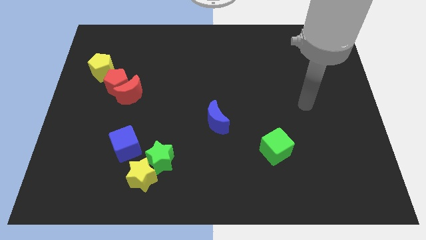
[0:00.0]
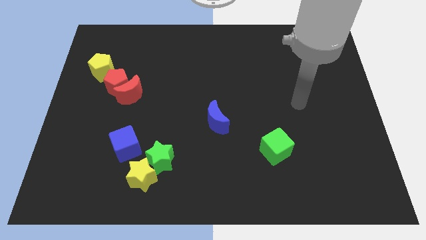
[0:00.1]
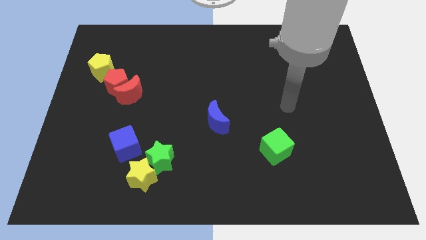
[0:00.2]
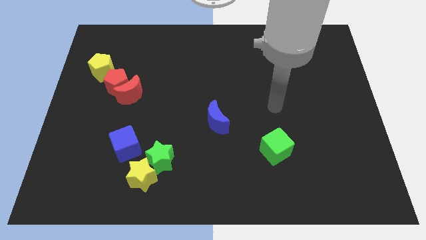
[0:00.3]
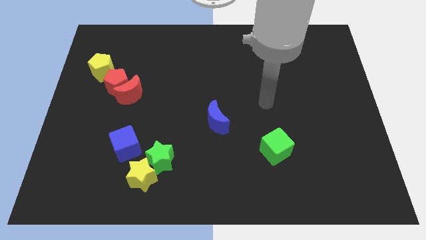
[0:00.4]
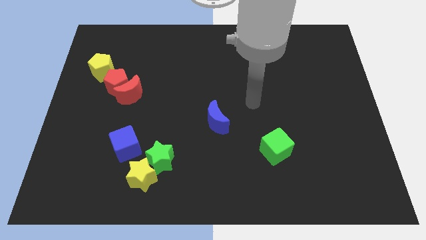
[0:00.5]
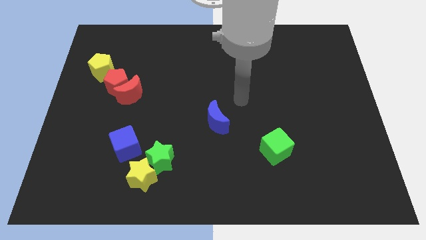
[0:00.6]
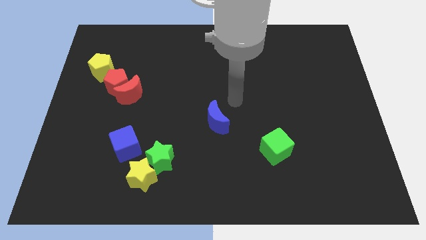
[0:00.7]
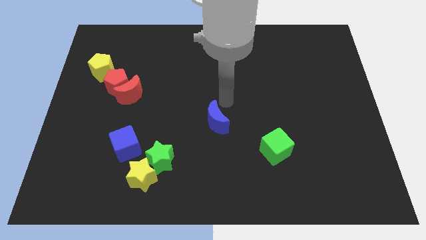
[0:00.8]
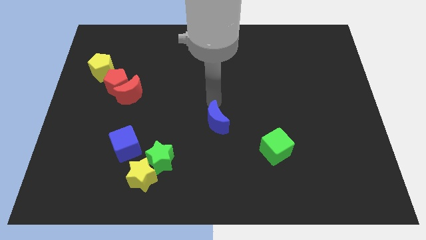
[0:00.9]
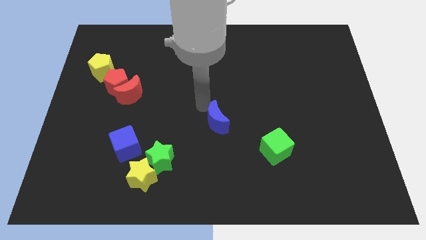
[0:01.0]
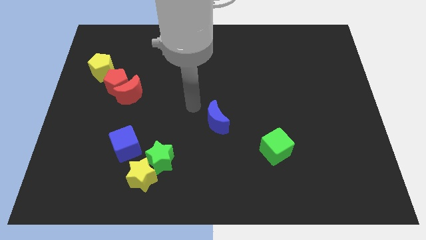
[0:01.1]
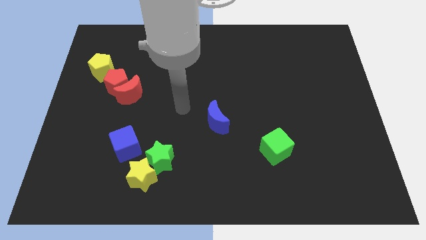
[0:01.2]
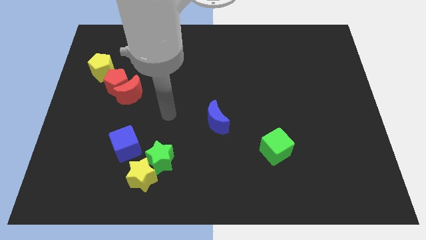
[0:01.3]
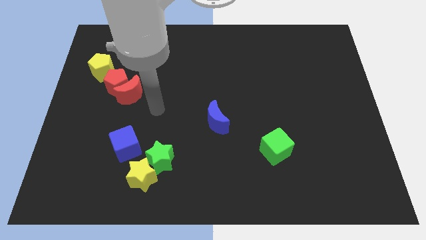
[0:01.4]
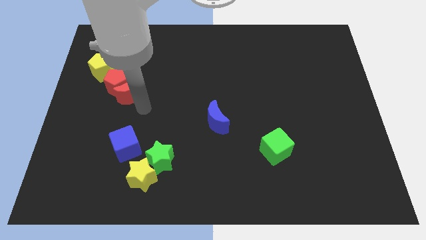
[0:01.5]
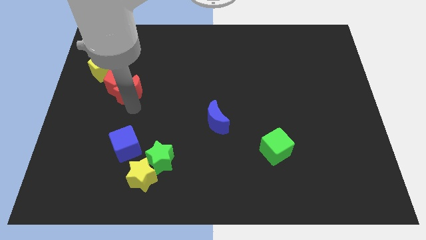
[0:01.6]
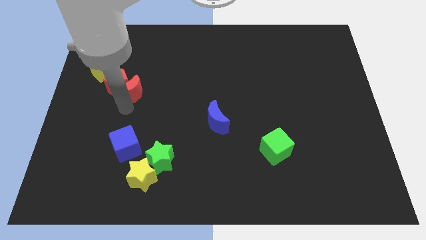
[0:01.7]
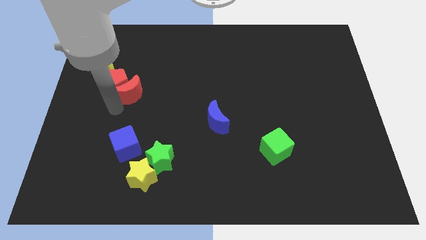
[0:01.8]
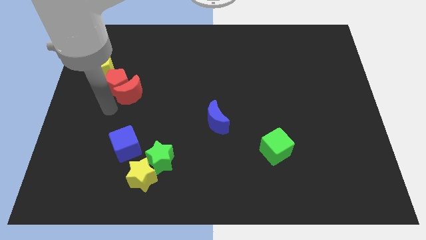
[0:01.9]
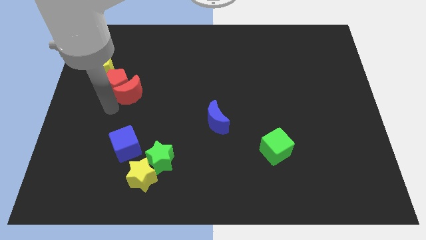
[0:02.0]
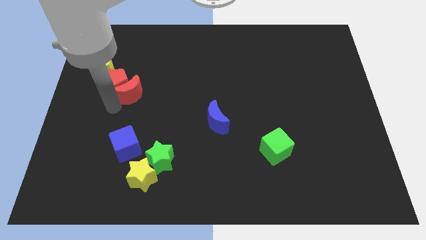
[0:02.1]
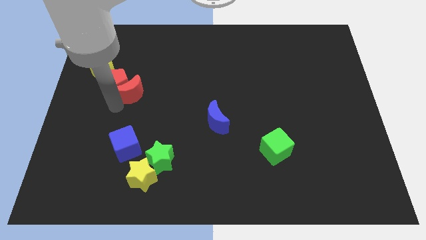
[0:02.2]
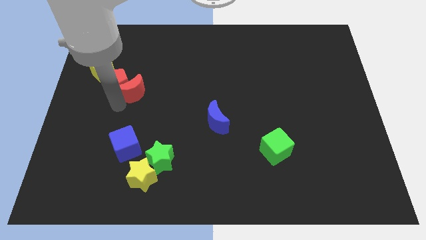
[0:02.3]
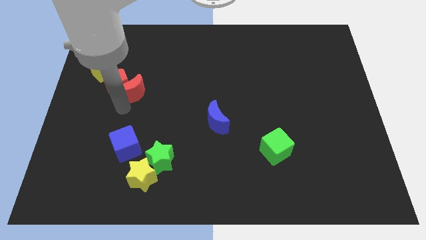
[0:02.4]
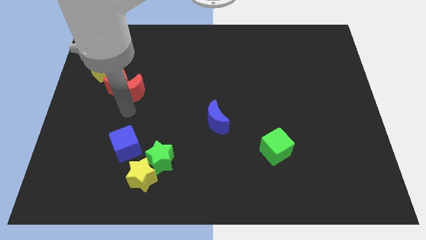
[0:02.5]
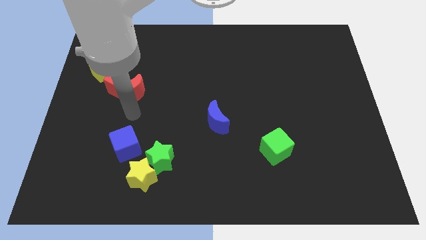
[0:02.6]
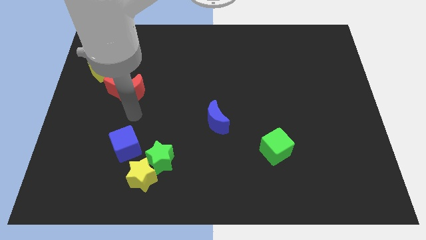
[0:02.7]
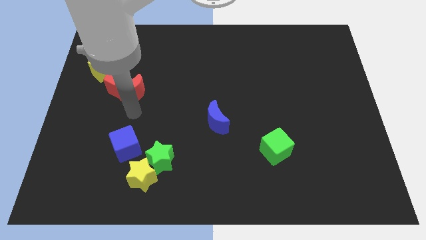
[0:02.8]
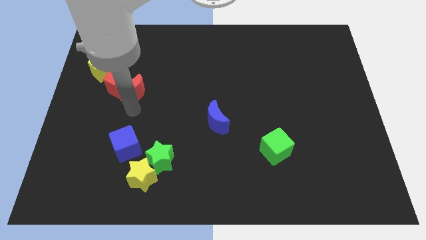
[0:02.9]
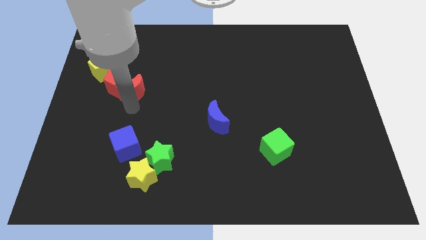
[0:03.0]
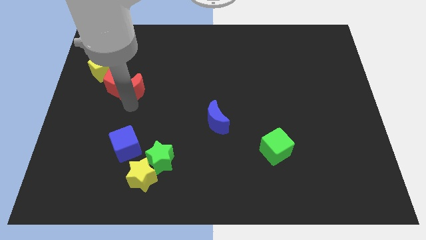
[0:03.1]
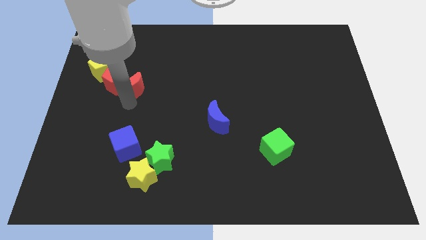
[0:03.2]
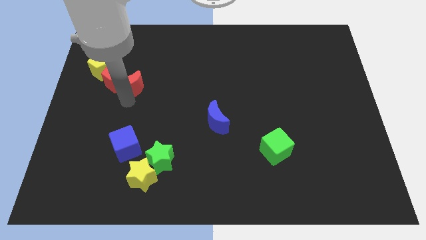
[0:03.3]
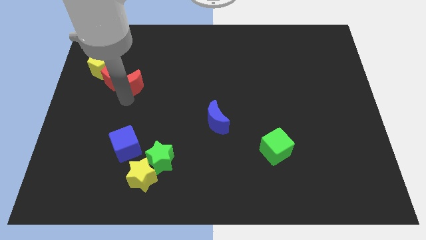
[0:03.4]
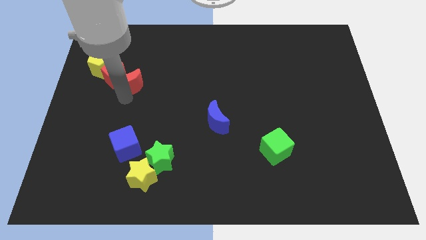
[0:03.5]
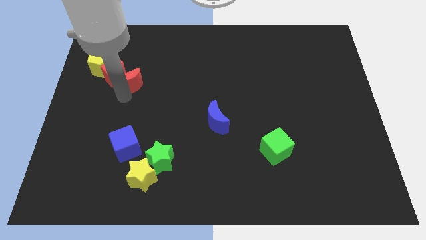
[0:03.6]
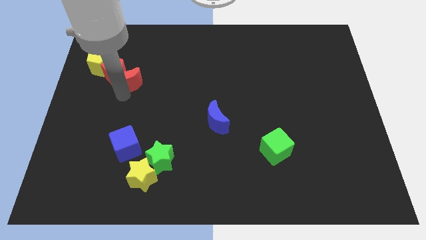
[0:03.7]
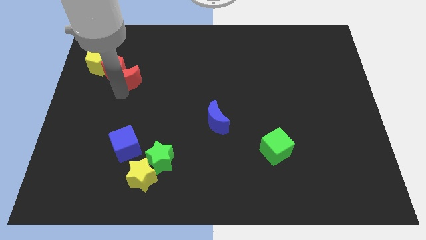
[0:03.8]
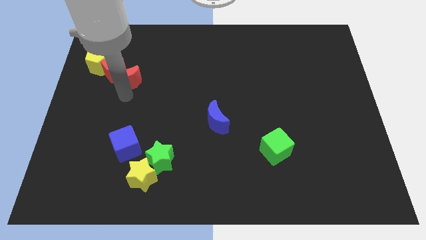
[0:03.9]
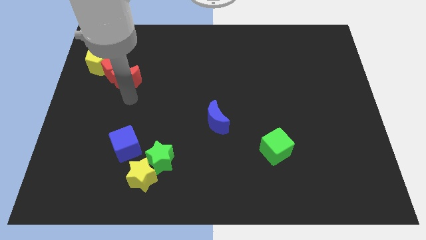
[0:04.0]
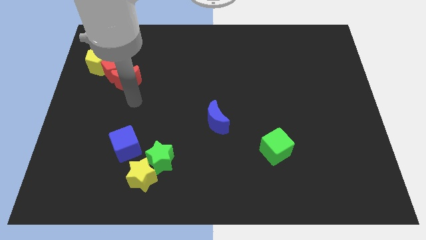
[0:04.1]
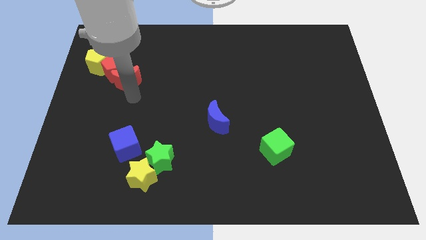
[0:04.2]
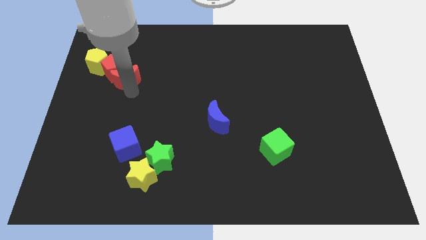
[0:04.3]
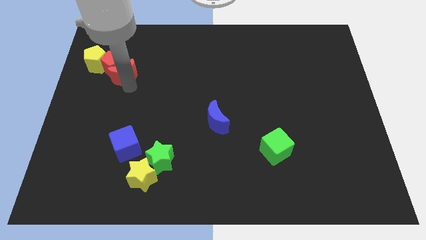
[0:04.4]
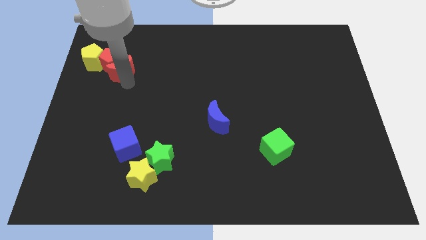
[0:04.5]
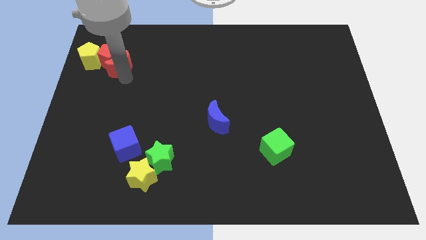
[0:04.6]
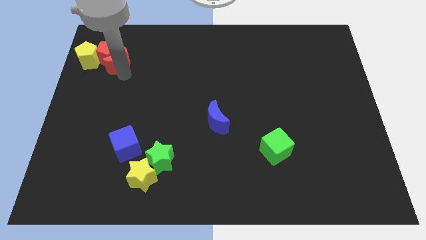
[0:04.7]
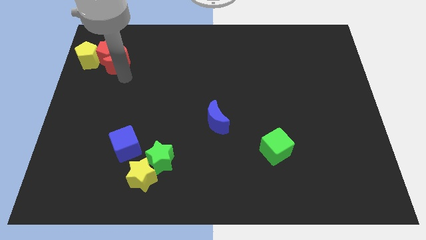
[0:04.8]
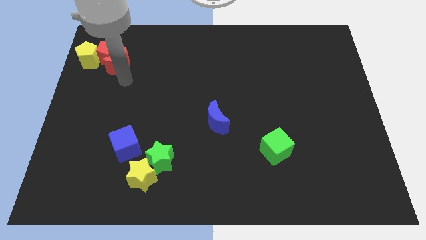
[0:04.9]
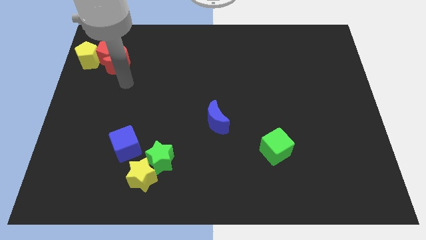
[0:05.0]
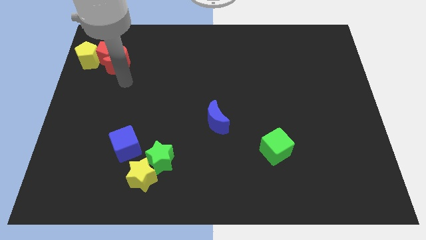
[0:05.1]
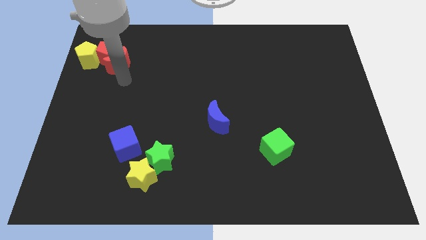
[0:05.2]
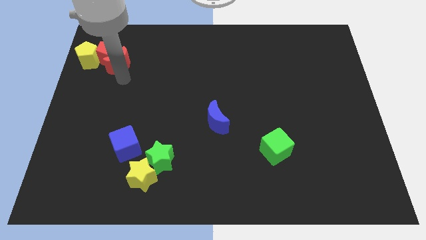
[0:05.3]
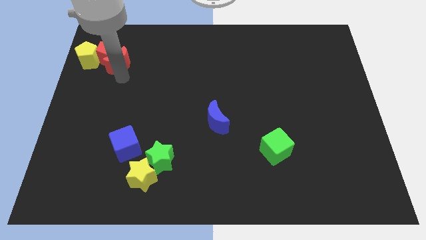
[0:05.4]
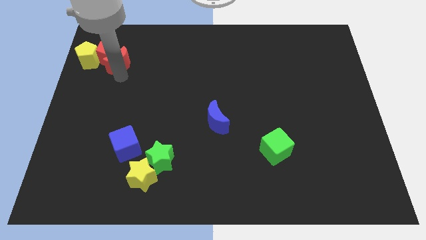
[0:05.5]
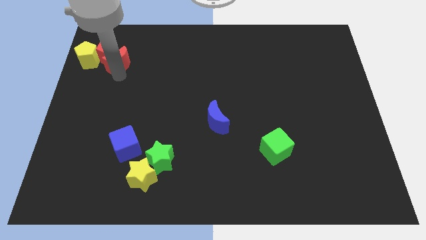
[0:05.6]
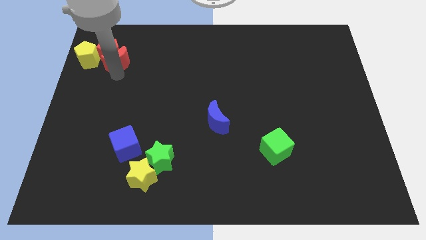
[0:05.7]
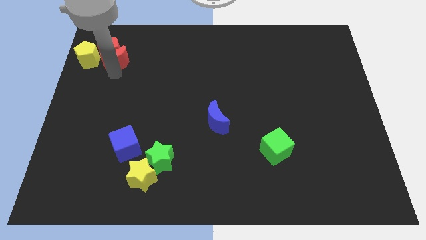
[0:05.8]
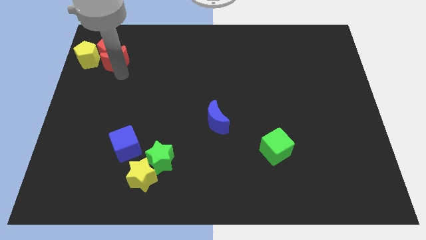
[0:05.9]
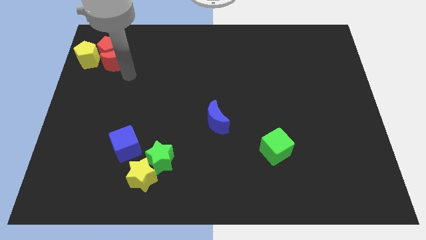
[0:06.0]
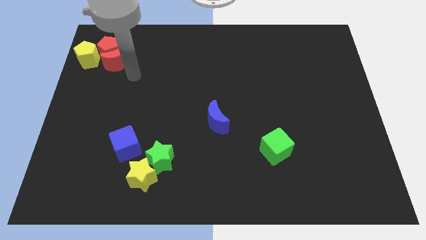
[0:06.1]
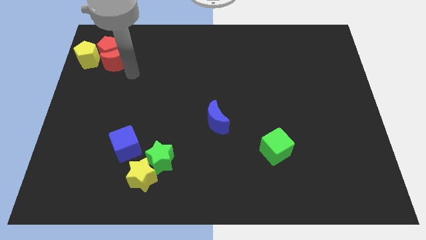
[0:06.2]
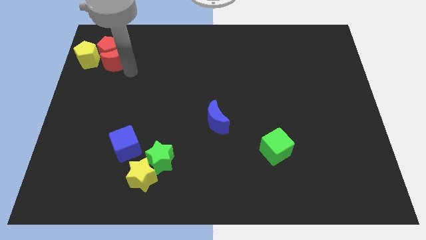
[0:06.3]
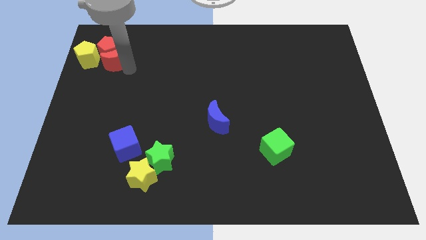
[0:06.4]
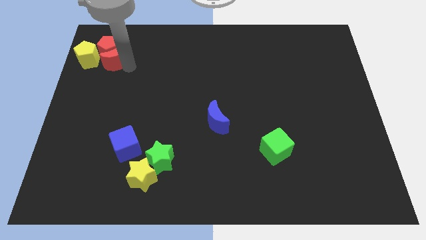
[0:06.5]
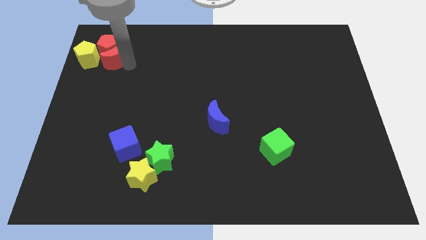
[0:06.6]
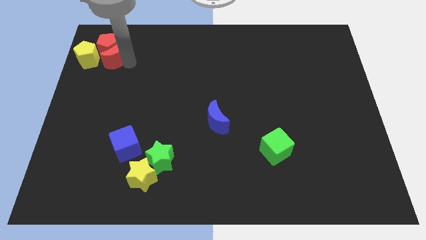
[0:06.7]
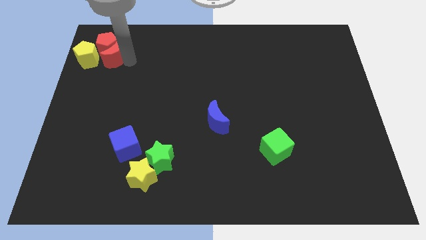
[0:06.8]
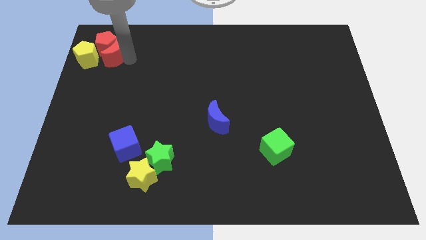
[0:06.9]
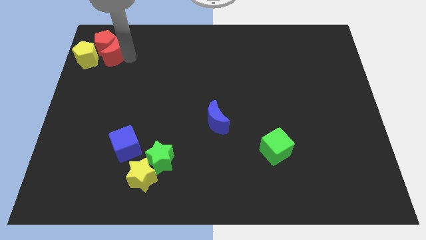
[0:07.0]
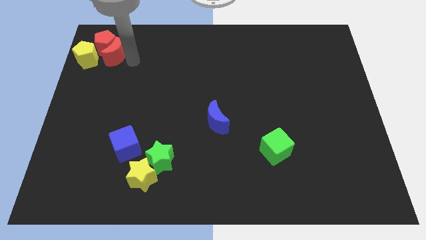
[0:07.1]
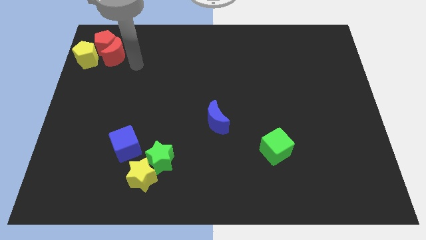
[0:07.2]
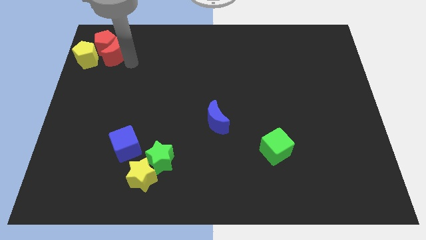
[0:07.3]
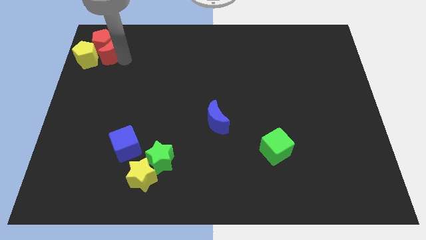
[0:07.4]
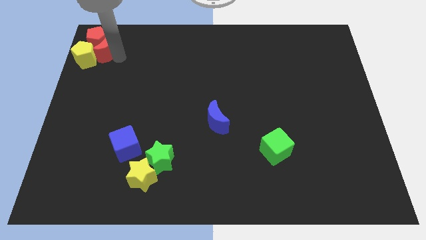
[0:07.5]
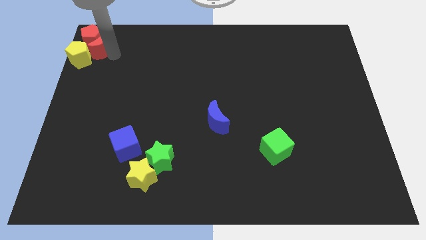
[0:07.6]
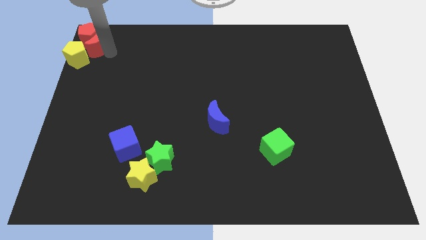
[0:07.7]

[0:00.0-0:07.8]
move the red moon to the top left

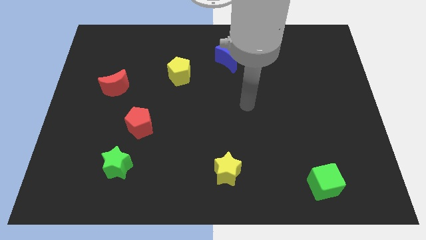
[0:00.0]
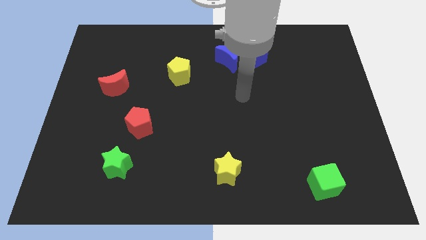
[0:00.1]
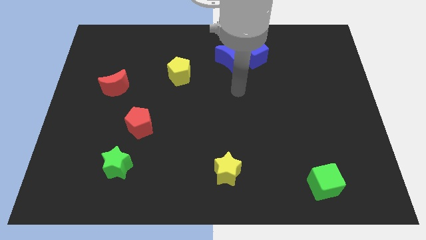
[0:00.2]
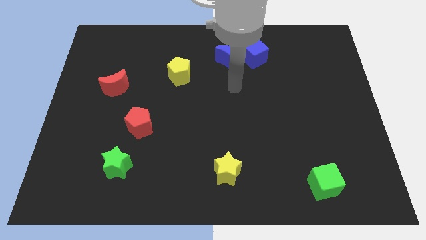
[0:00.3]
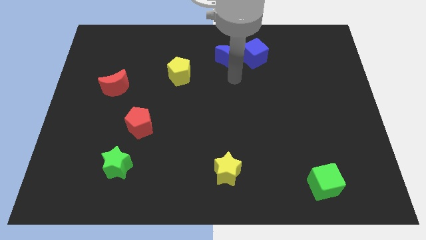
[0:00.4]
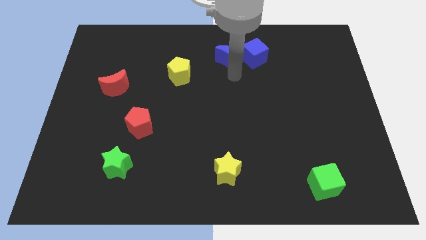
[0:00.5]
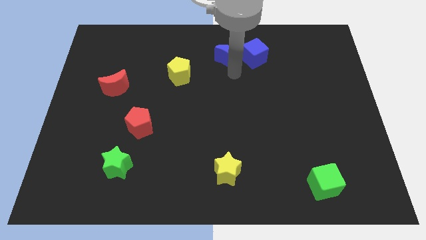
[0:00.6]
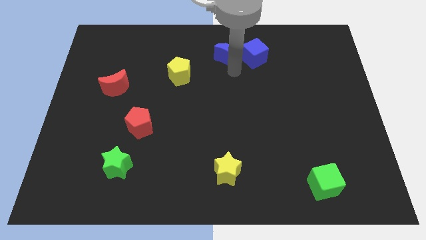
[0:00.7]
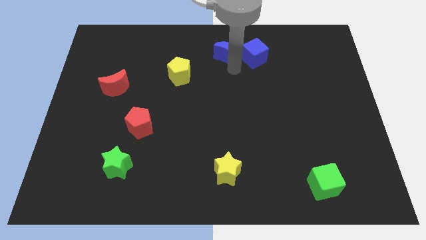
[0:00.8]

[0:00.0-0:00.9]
move the blue moon to the top
